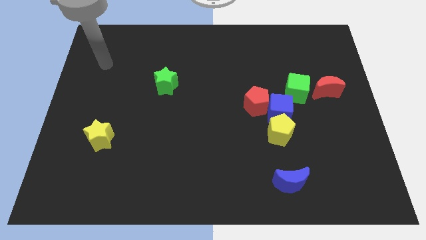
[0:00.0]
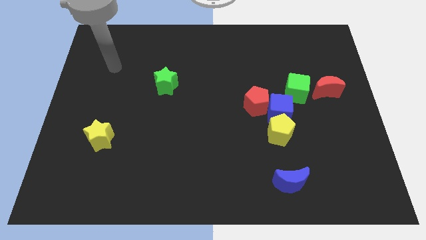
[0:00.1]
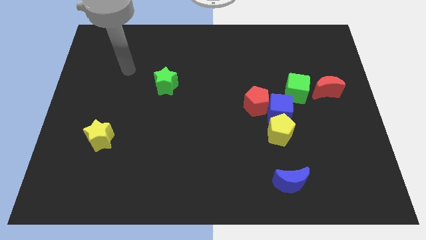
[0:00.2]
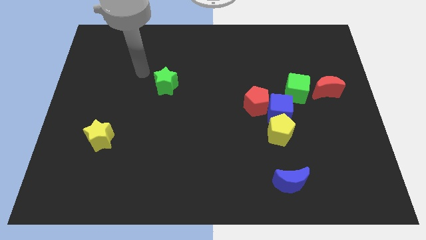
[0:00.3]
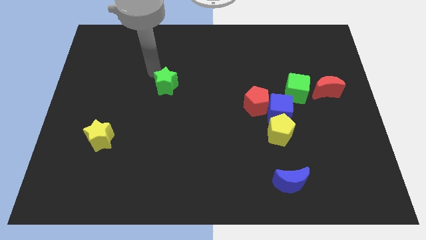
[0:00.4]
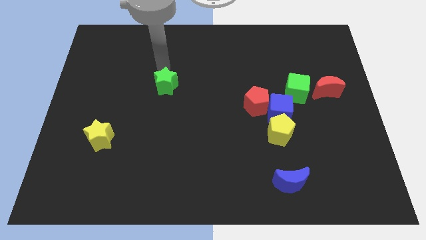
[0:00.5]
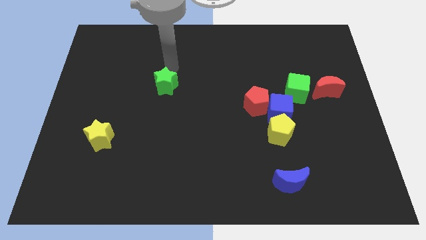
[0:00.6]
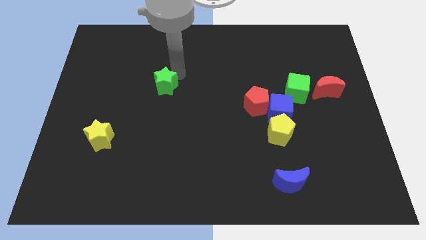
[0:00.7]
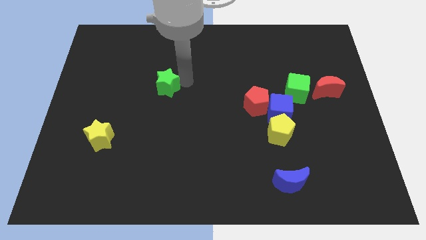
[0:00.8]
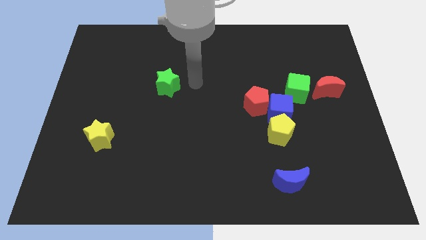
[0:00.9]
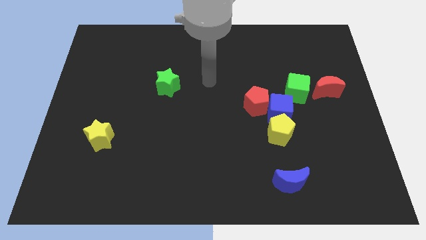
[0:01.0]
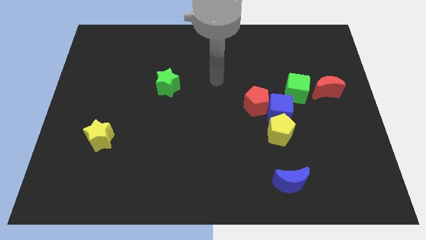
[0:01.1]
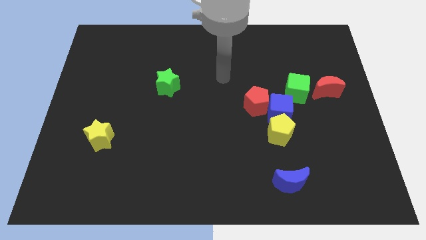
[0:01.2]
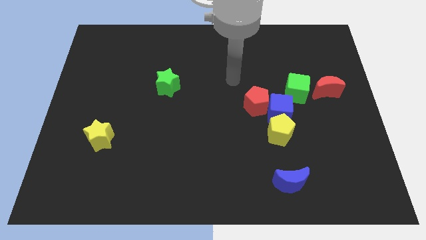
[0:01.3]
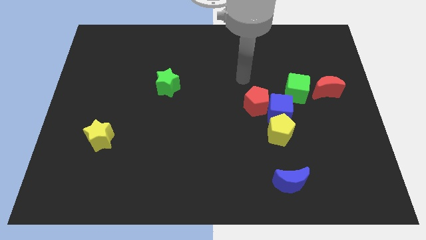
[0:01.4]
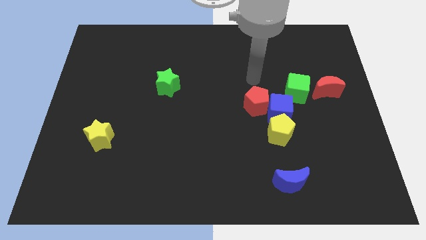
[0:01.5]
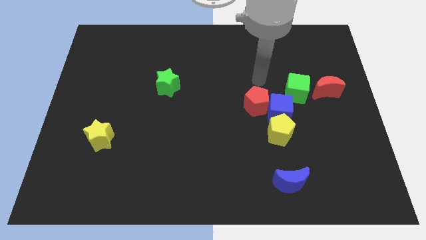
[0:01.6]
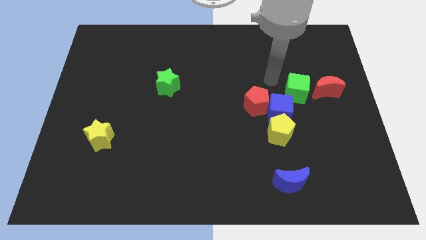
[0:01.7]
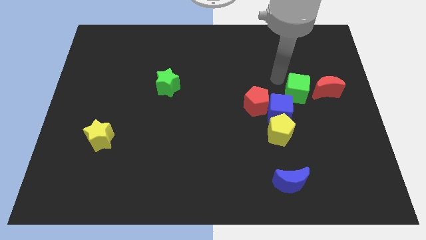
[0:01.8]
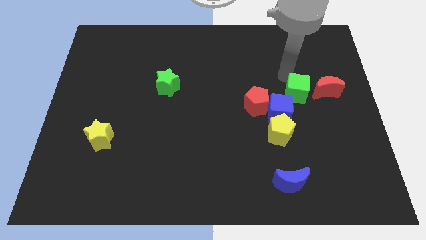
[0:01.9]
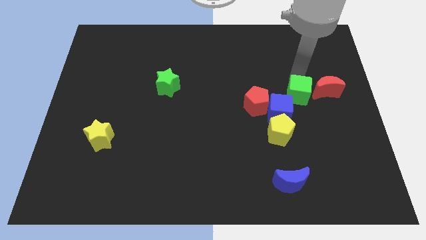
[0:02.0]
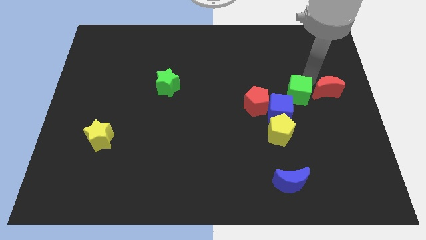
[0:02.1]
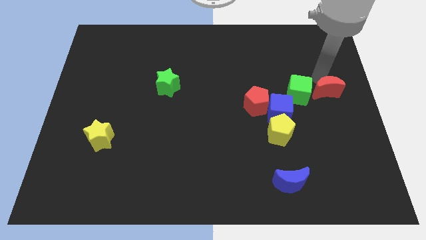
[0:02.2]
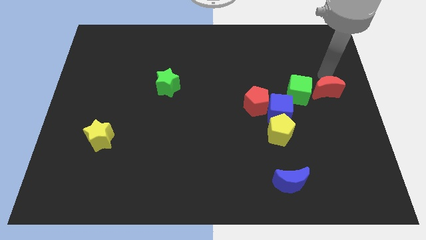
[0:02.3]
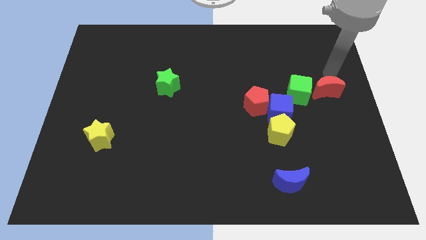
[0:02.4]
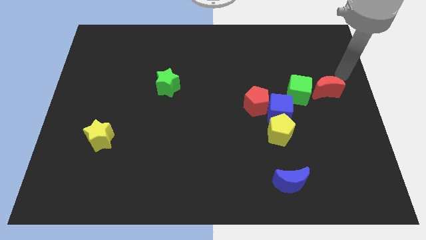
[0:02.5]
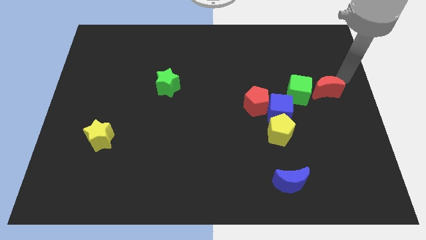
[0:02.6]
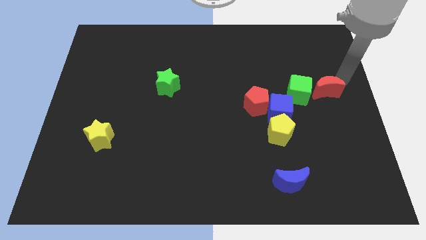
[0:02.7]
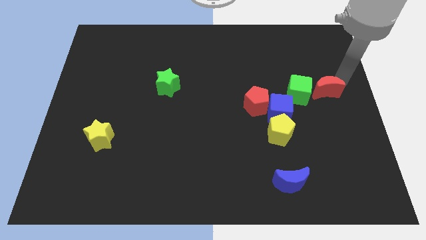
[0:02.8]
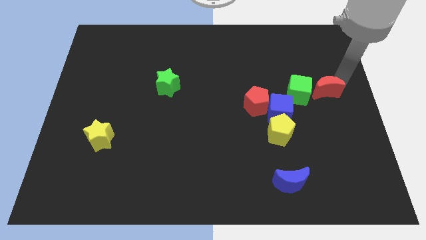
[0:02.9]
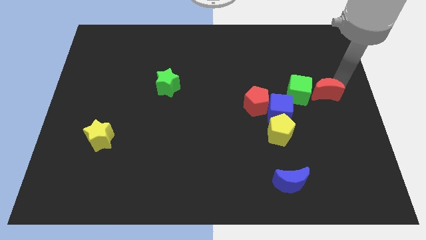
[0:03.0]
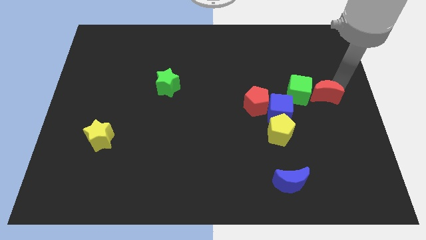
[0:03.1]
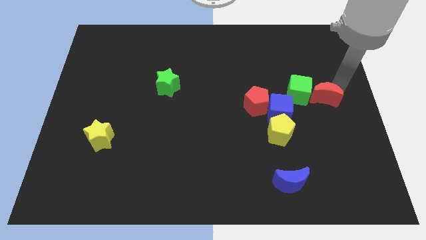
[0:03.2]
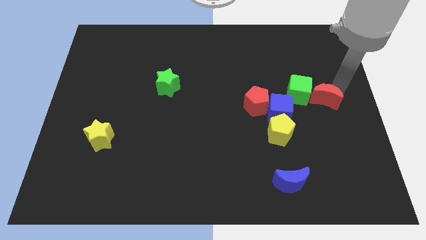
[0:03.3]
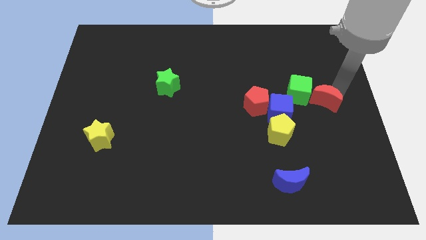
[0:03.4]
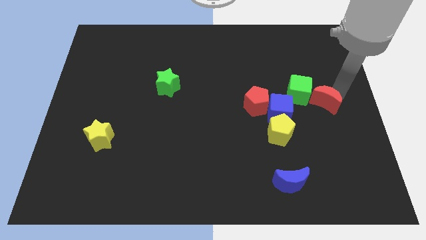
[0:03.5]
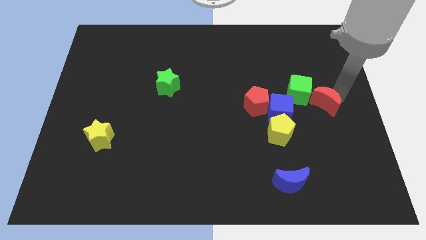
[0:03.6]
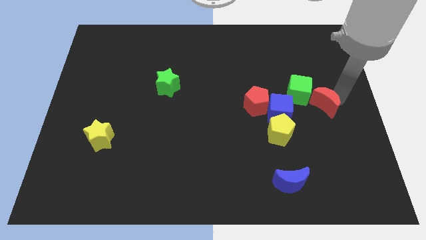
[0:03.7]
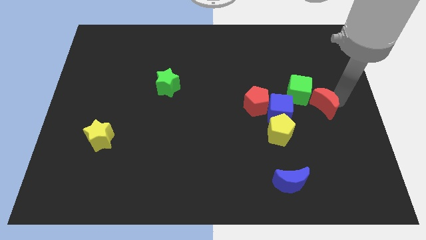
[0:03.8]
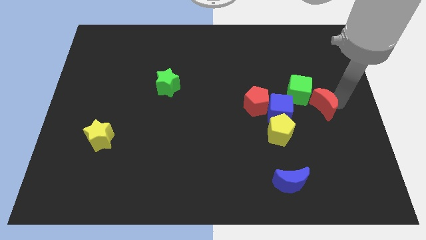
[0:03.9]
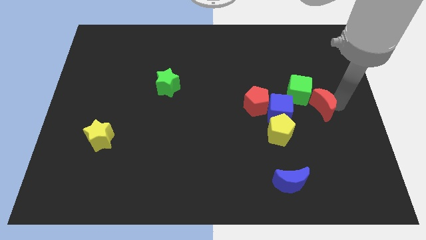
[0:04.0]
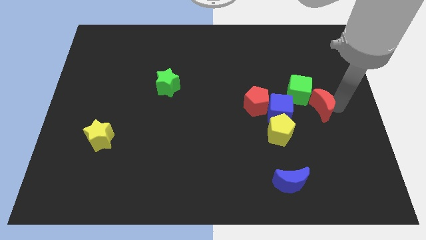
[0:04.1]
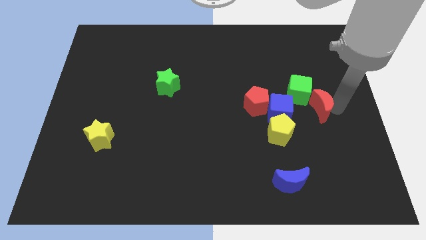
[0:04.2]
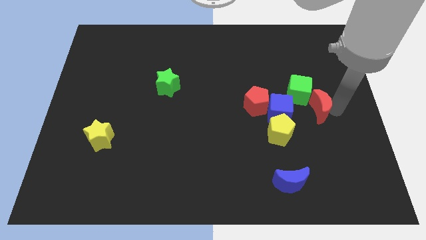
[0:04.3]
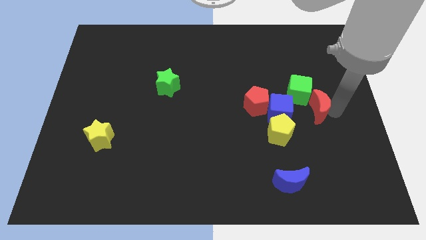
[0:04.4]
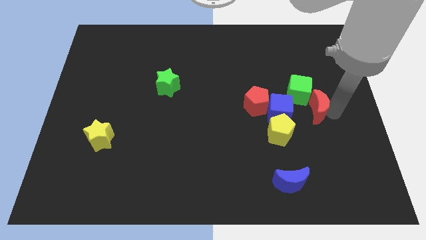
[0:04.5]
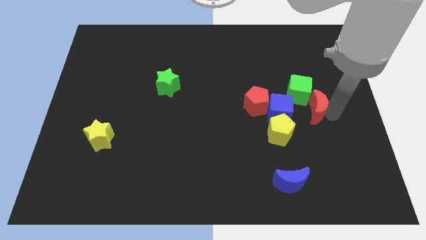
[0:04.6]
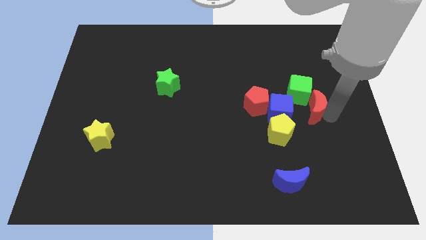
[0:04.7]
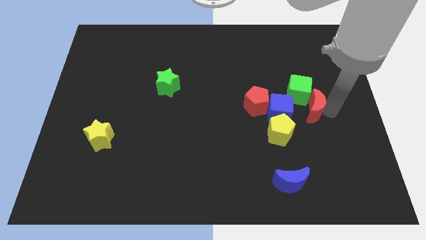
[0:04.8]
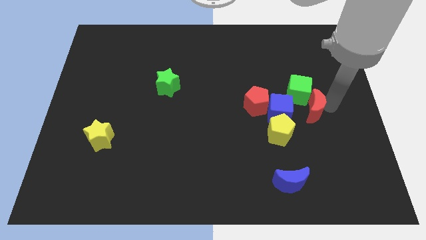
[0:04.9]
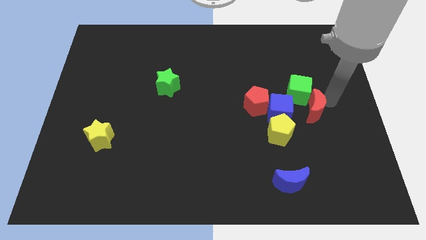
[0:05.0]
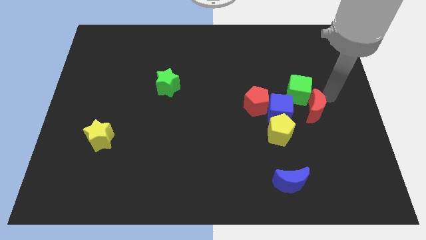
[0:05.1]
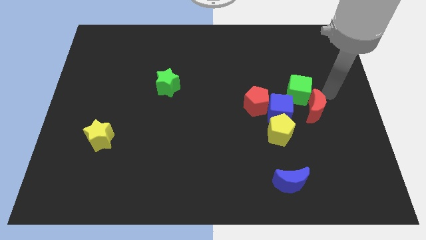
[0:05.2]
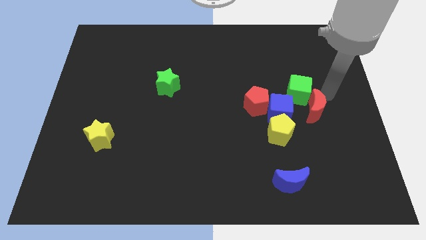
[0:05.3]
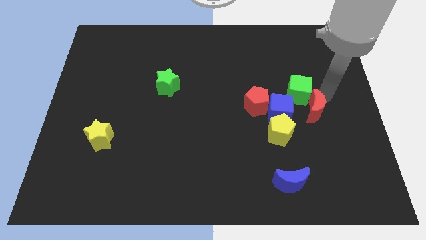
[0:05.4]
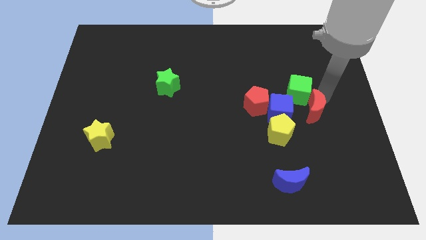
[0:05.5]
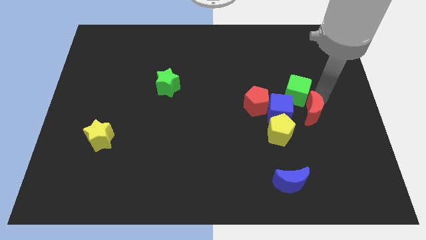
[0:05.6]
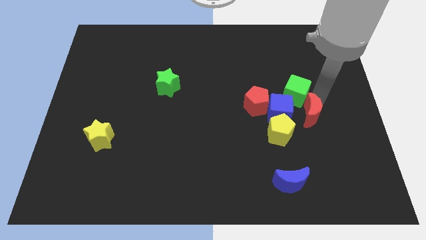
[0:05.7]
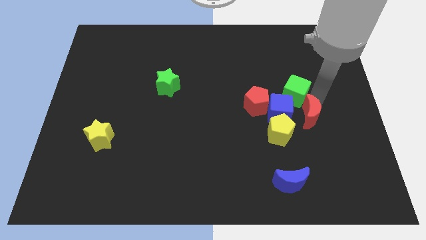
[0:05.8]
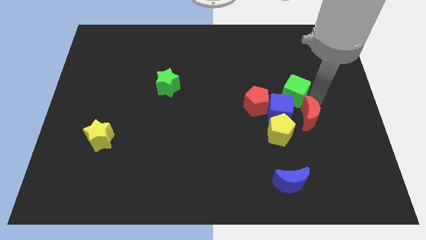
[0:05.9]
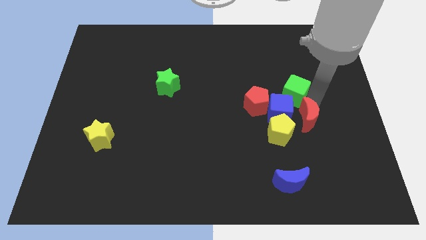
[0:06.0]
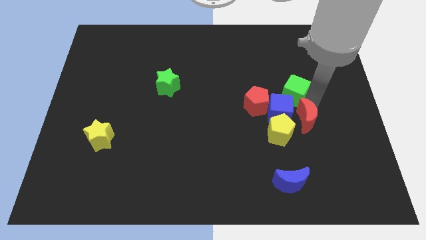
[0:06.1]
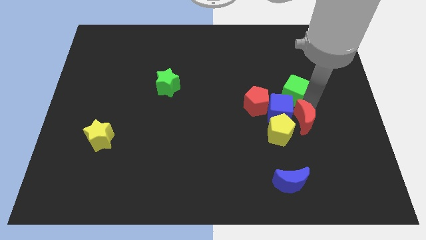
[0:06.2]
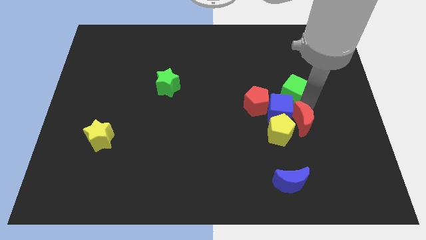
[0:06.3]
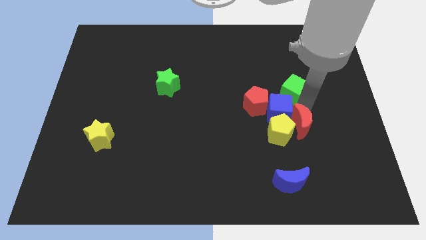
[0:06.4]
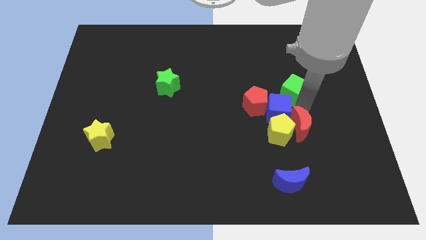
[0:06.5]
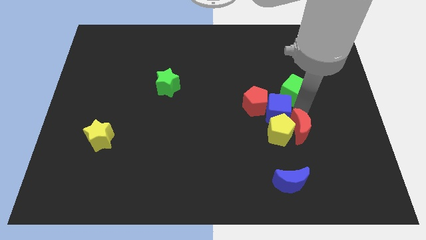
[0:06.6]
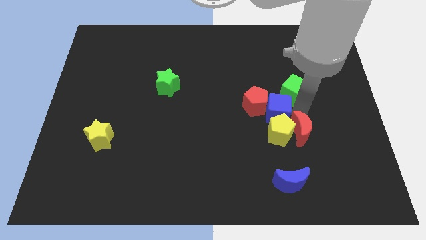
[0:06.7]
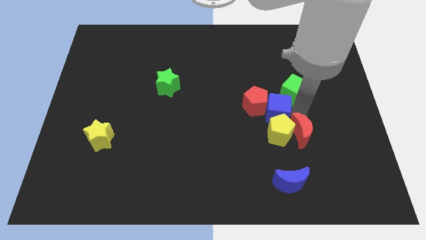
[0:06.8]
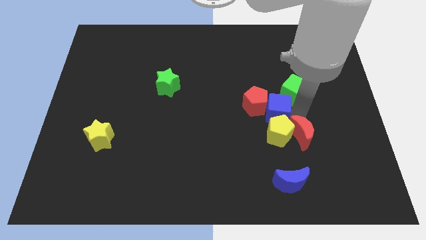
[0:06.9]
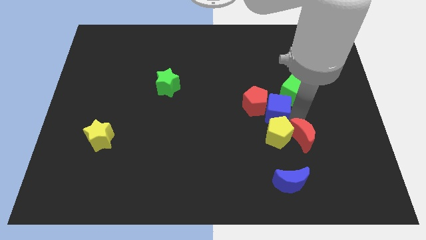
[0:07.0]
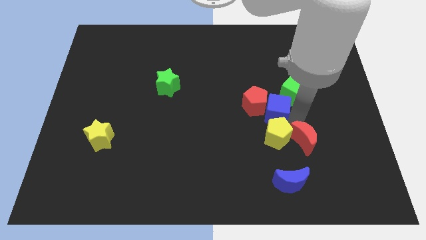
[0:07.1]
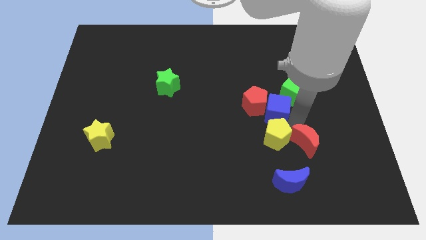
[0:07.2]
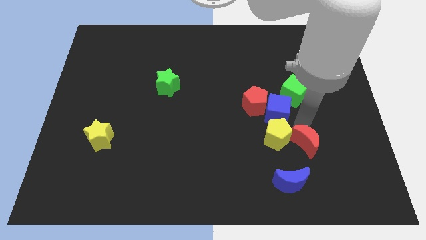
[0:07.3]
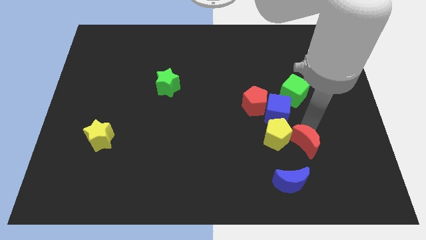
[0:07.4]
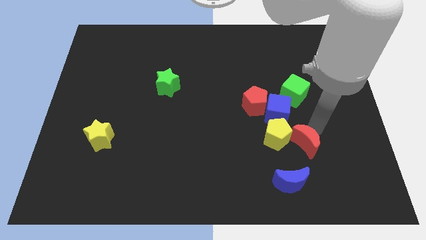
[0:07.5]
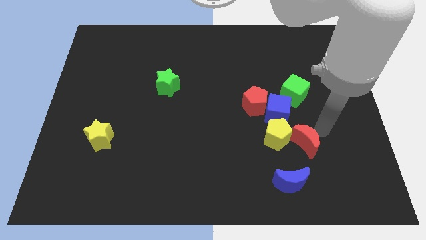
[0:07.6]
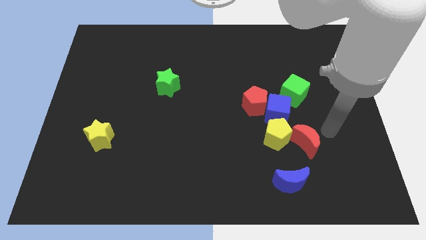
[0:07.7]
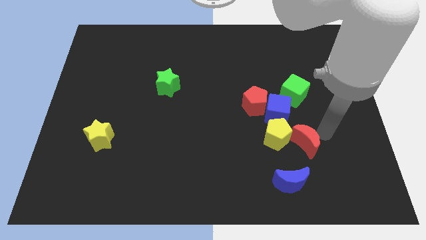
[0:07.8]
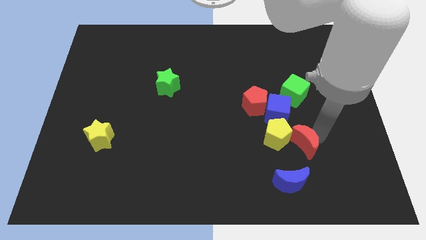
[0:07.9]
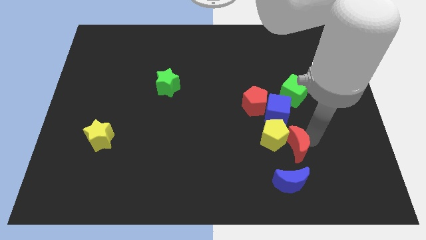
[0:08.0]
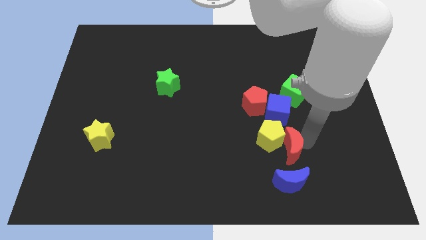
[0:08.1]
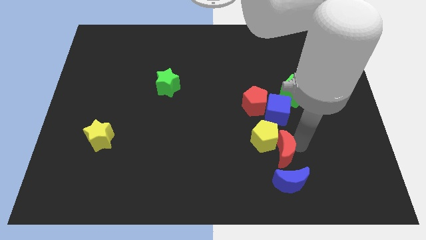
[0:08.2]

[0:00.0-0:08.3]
push the red moon diagonally up and to the left of the blue moon
